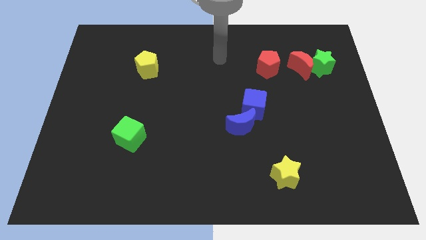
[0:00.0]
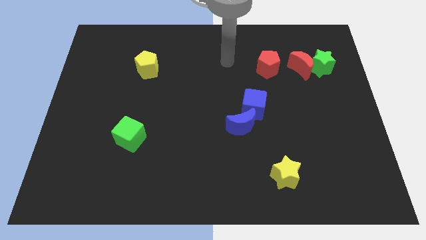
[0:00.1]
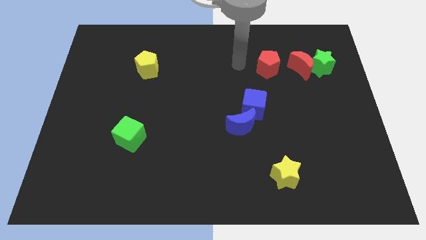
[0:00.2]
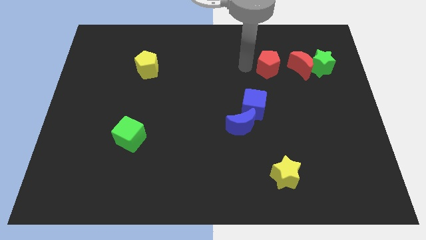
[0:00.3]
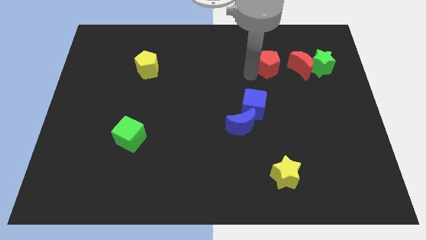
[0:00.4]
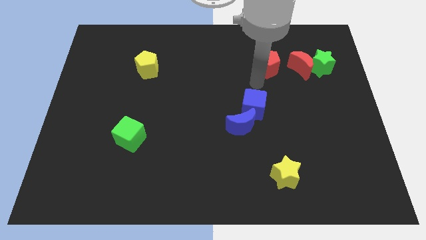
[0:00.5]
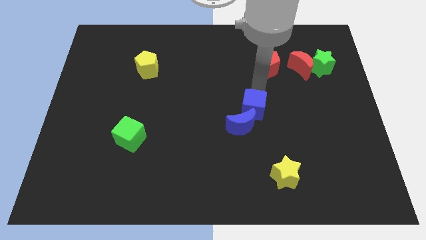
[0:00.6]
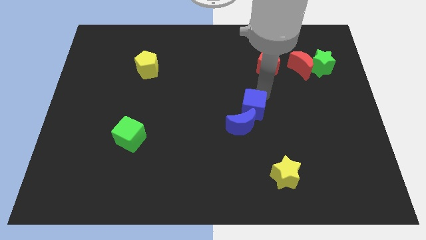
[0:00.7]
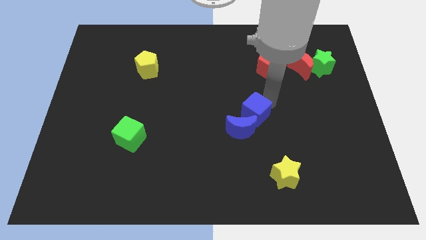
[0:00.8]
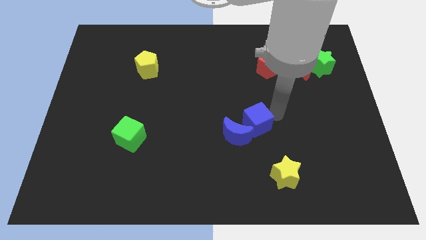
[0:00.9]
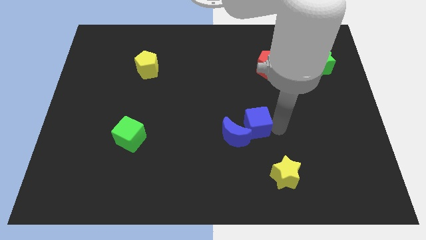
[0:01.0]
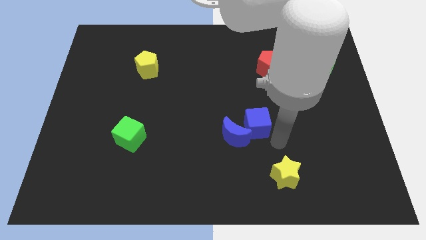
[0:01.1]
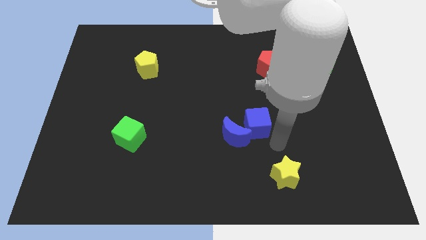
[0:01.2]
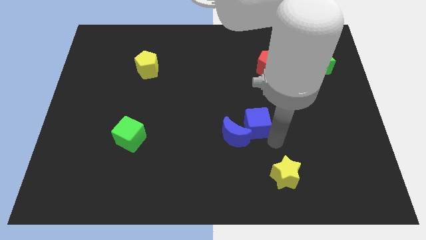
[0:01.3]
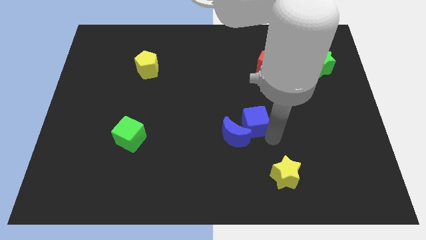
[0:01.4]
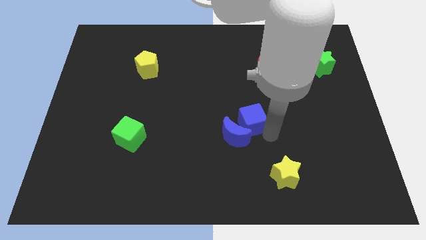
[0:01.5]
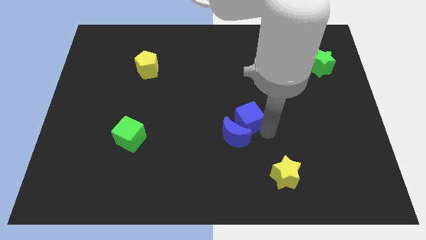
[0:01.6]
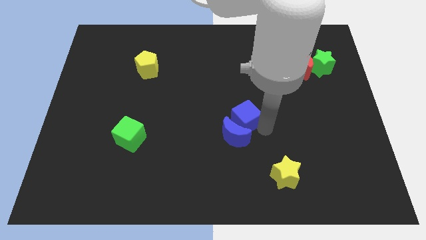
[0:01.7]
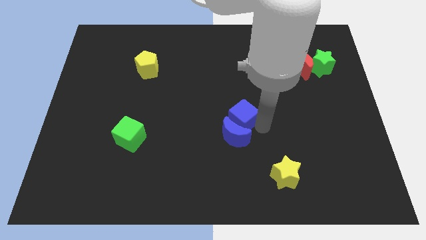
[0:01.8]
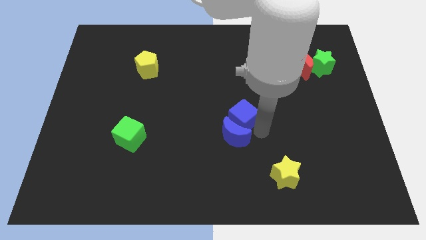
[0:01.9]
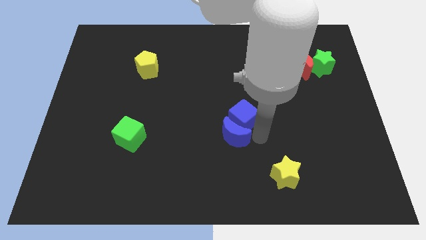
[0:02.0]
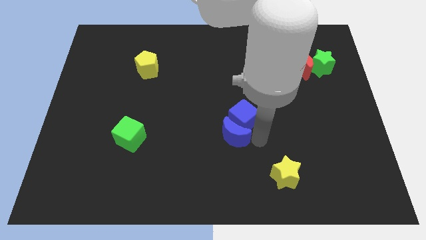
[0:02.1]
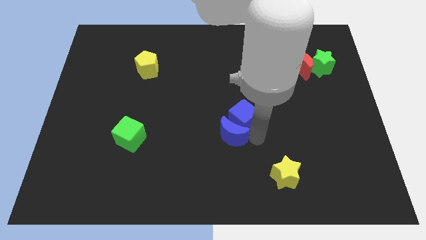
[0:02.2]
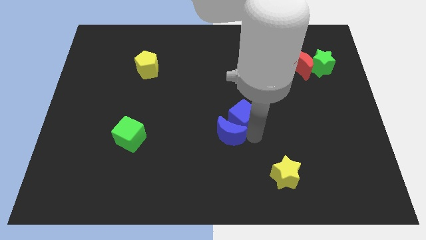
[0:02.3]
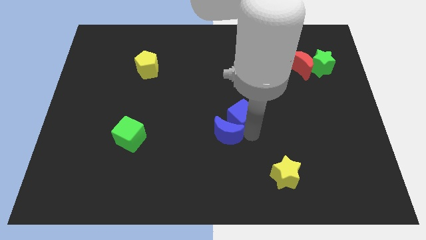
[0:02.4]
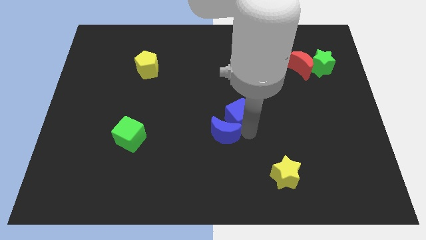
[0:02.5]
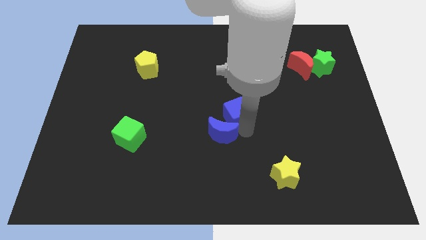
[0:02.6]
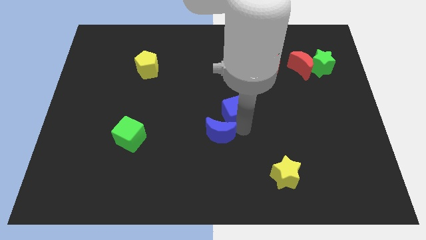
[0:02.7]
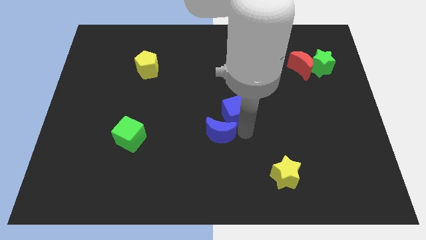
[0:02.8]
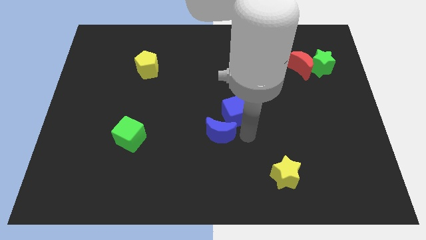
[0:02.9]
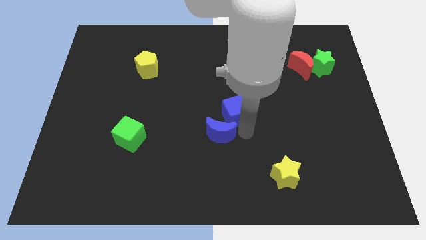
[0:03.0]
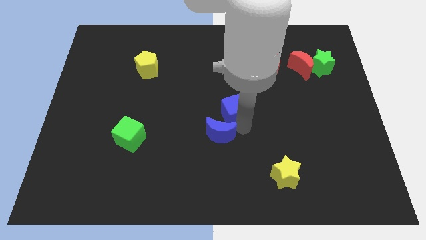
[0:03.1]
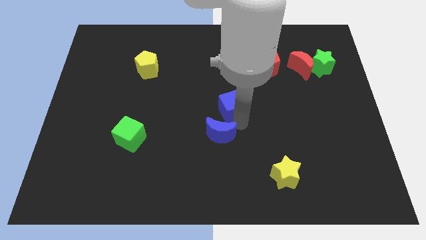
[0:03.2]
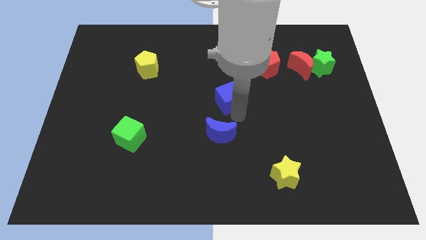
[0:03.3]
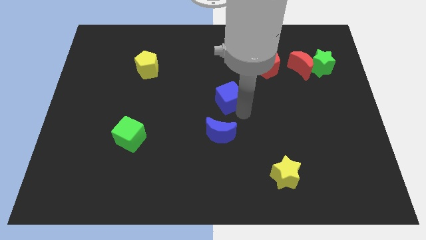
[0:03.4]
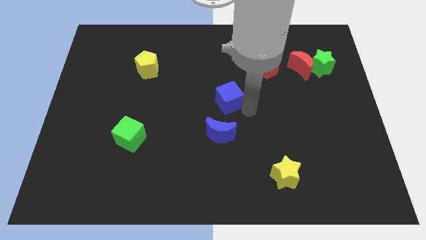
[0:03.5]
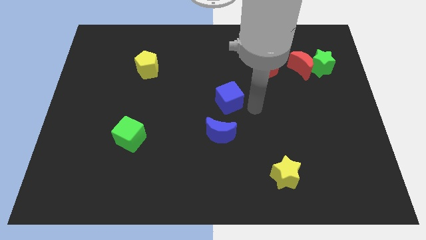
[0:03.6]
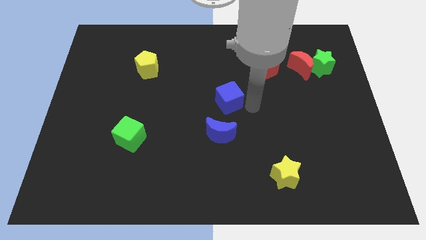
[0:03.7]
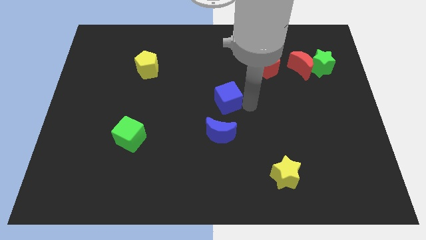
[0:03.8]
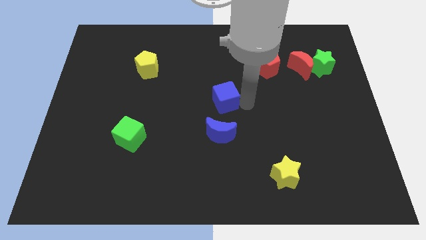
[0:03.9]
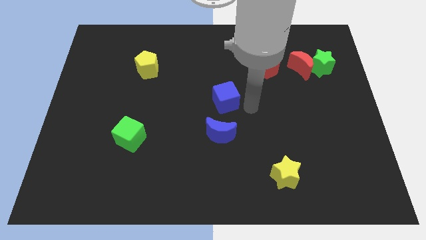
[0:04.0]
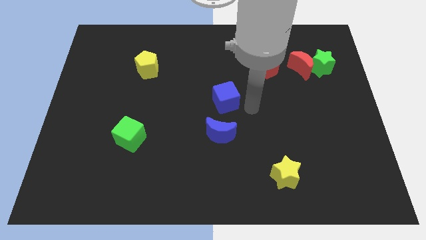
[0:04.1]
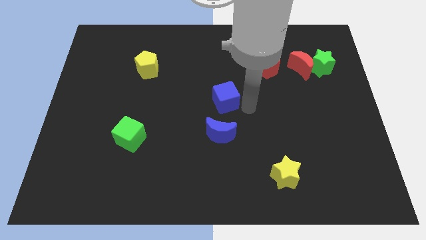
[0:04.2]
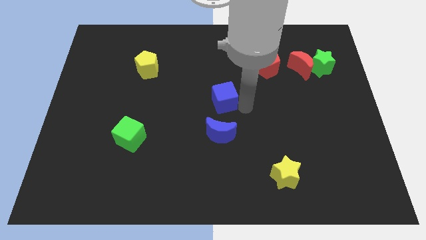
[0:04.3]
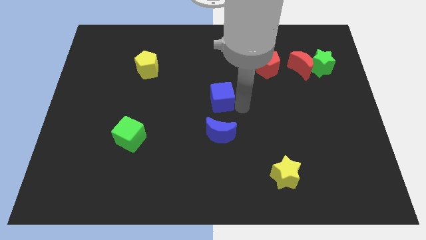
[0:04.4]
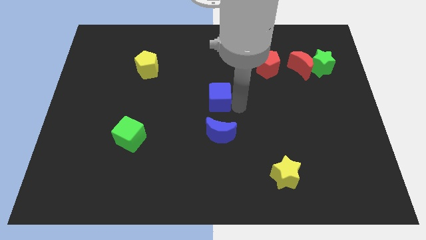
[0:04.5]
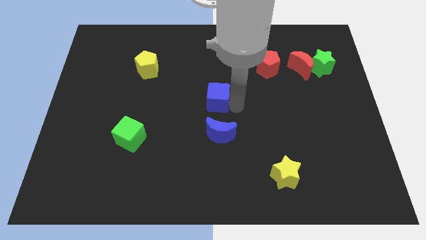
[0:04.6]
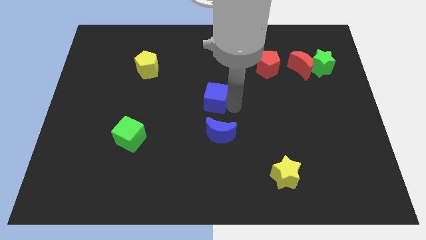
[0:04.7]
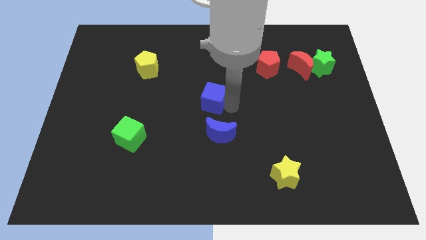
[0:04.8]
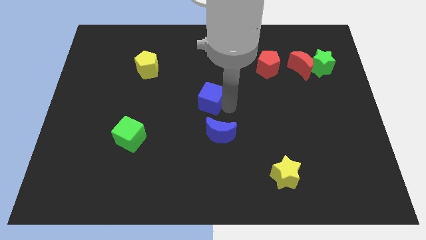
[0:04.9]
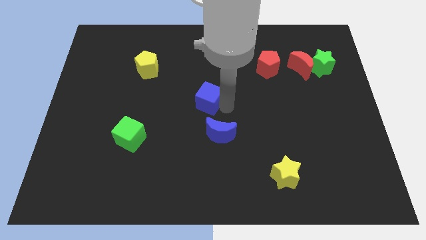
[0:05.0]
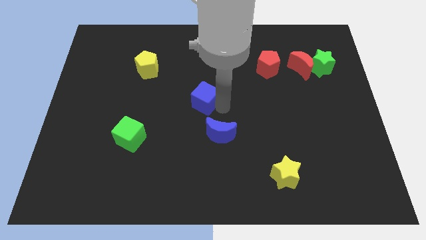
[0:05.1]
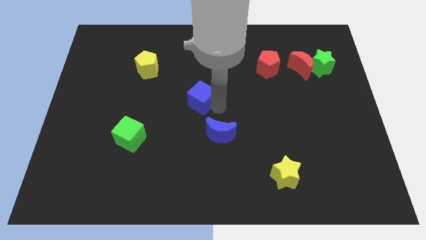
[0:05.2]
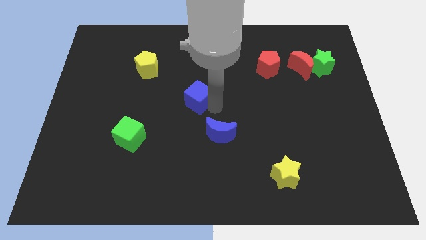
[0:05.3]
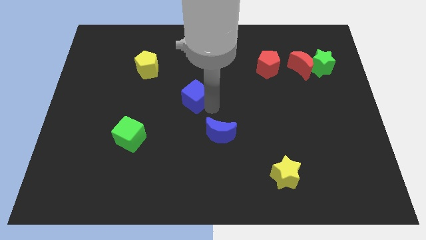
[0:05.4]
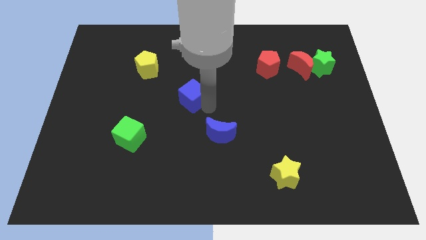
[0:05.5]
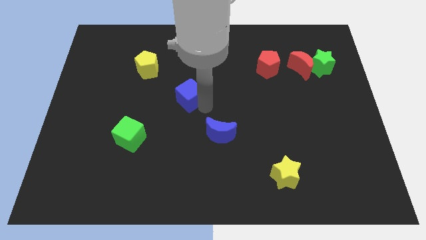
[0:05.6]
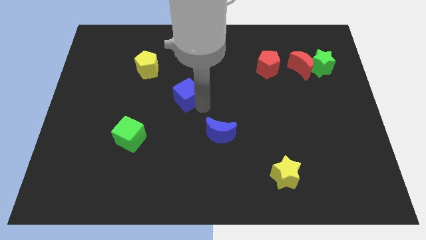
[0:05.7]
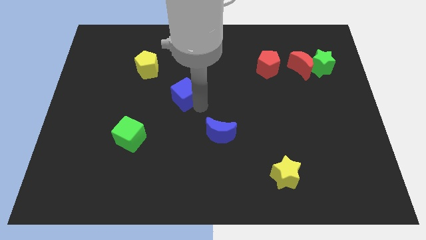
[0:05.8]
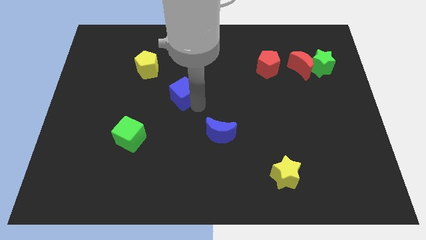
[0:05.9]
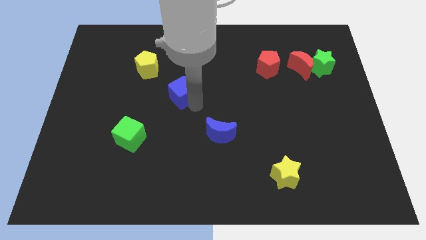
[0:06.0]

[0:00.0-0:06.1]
put the blue cube diagonally down and to the right of the yellow pentagon

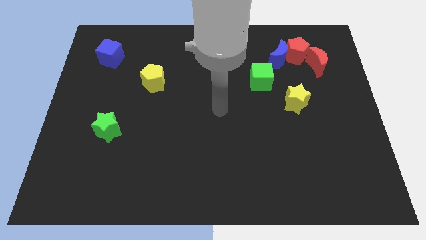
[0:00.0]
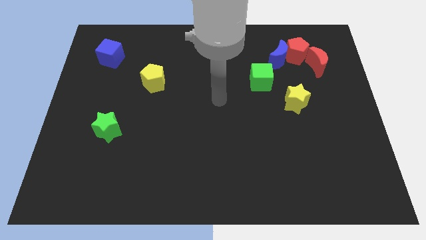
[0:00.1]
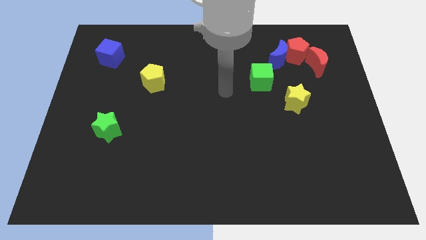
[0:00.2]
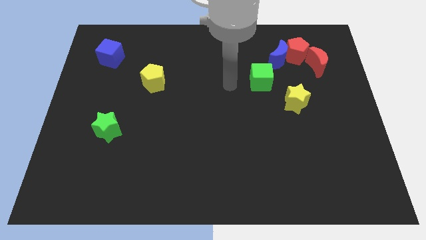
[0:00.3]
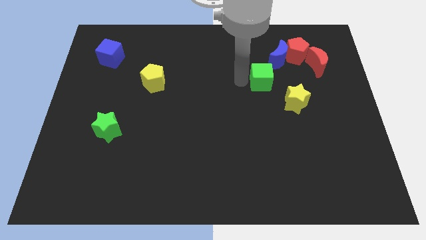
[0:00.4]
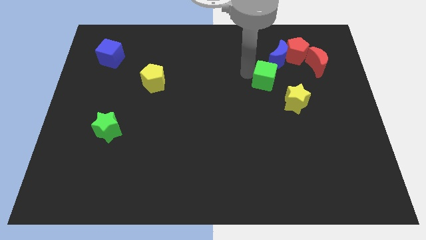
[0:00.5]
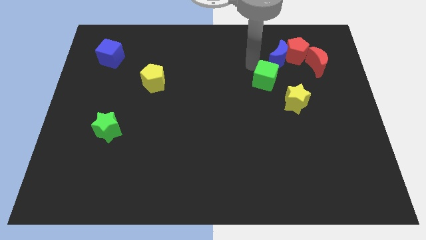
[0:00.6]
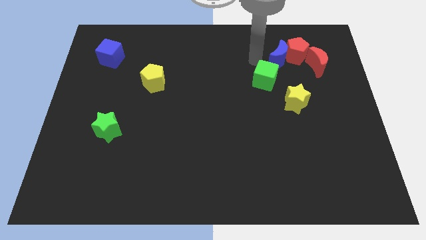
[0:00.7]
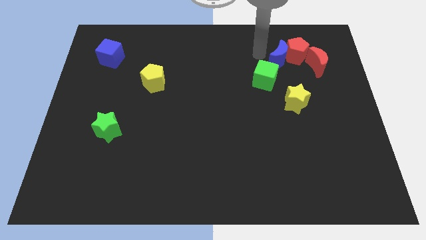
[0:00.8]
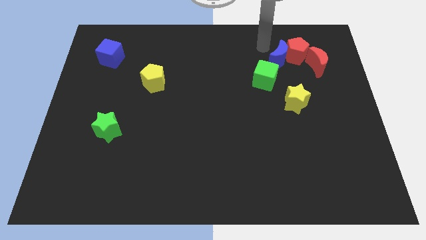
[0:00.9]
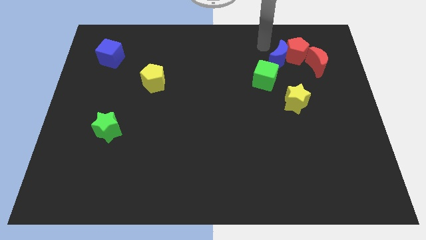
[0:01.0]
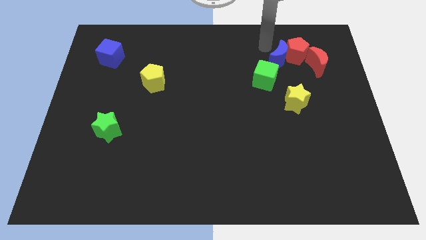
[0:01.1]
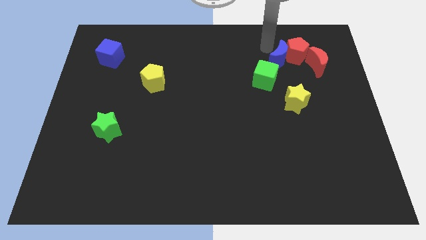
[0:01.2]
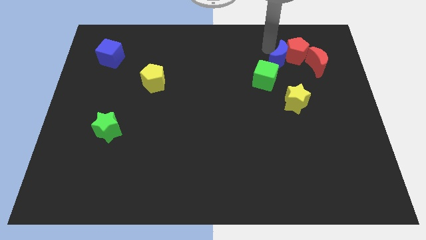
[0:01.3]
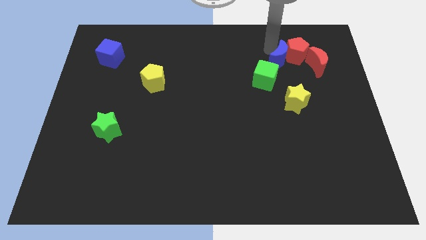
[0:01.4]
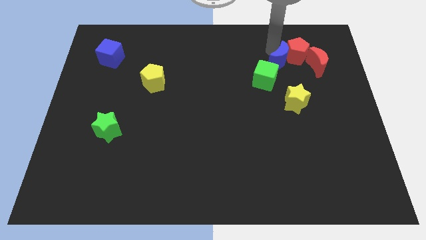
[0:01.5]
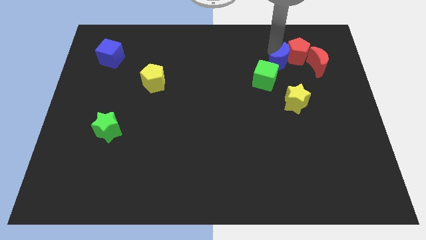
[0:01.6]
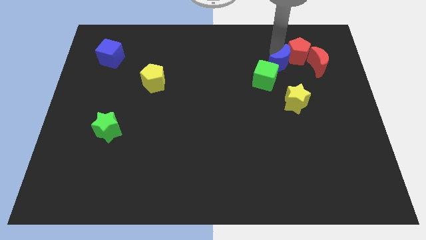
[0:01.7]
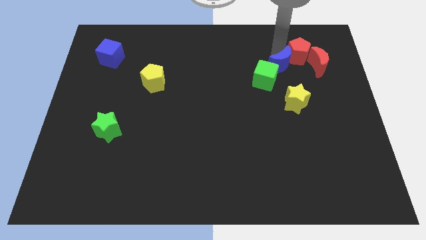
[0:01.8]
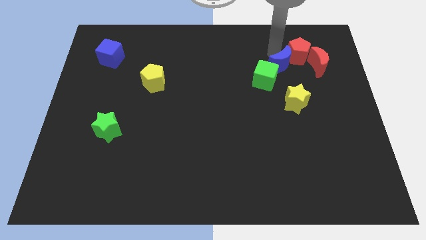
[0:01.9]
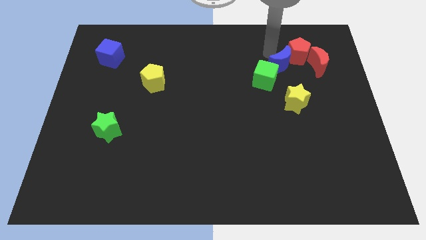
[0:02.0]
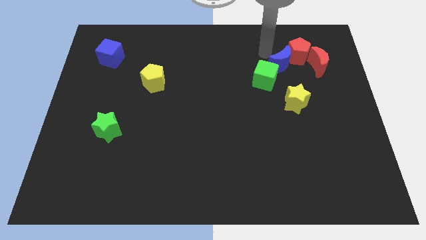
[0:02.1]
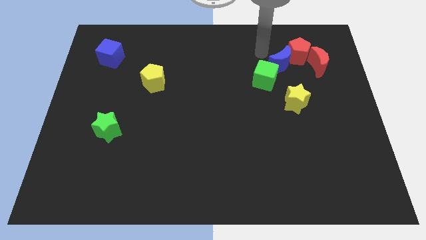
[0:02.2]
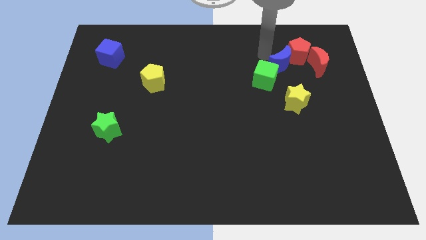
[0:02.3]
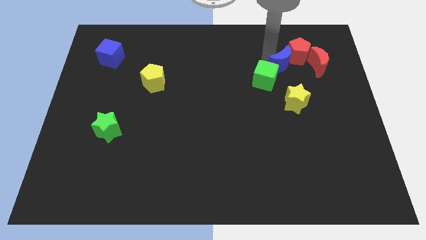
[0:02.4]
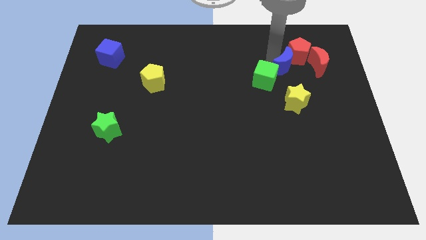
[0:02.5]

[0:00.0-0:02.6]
slide the blue moon right of the green cube
